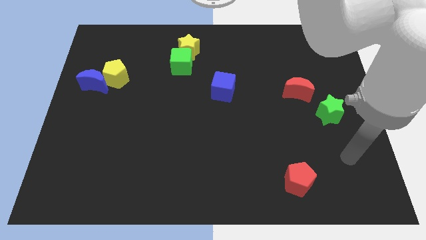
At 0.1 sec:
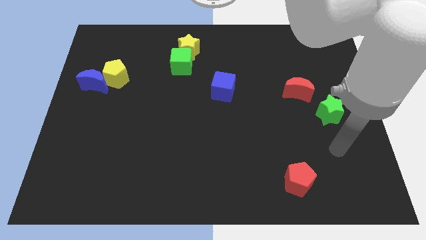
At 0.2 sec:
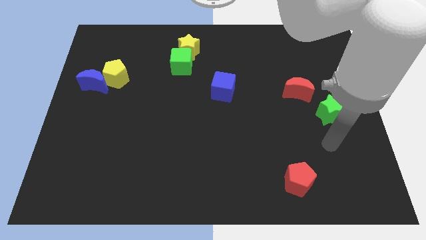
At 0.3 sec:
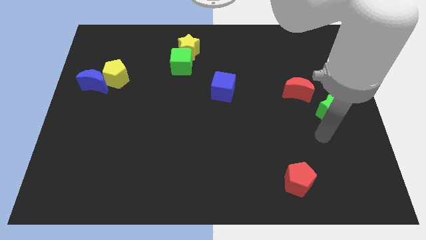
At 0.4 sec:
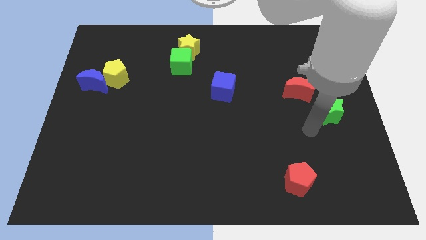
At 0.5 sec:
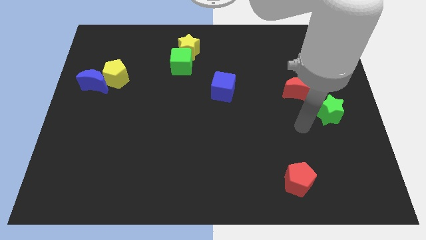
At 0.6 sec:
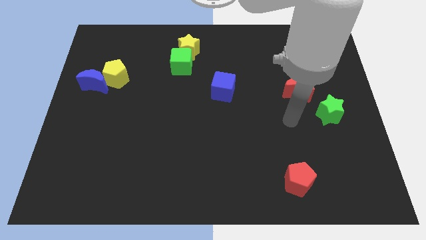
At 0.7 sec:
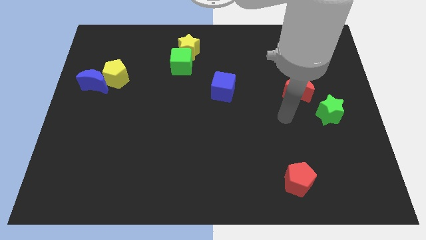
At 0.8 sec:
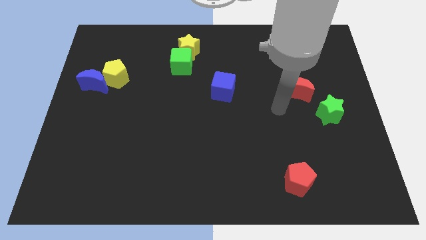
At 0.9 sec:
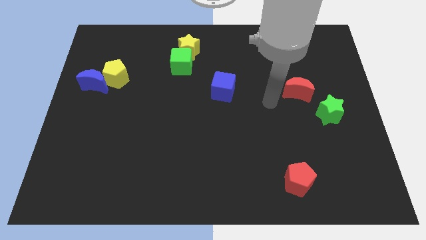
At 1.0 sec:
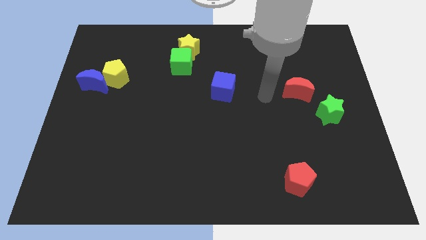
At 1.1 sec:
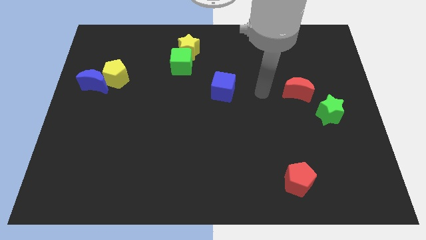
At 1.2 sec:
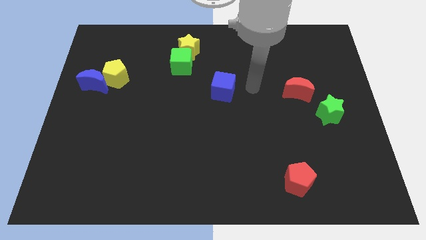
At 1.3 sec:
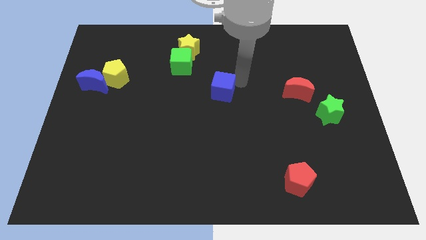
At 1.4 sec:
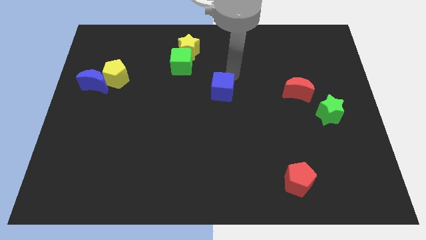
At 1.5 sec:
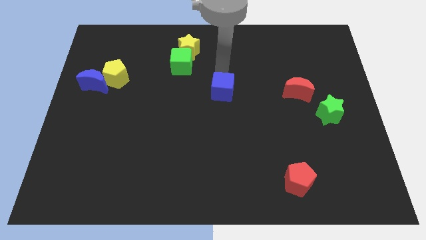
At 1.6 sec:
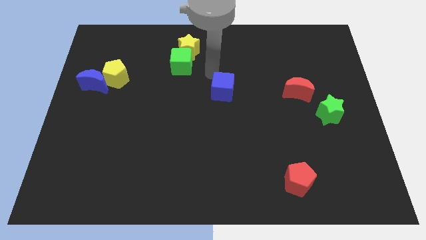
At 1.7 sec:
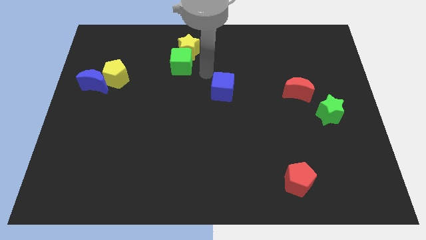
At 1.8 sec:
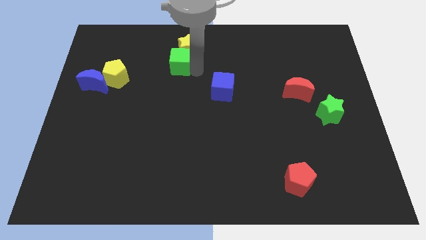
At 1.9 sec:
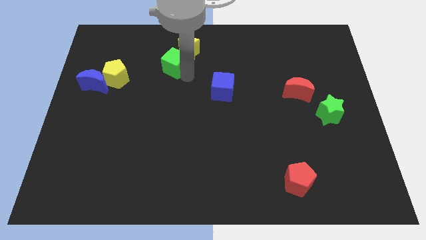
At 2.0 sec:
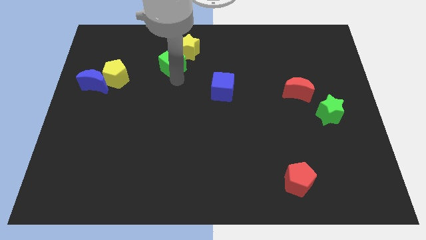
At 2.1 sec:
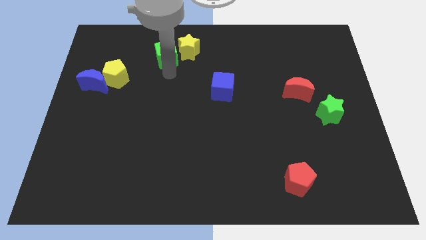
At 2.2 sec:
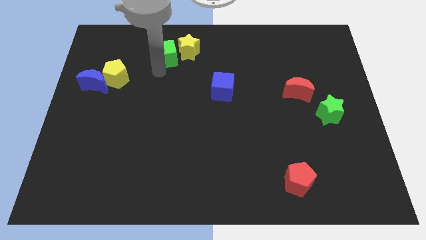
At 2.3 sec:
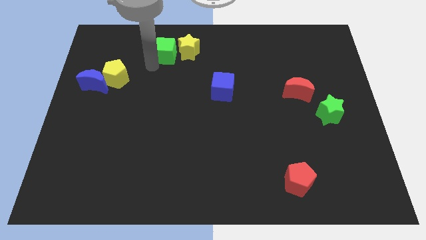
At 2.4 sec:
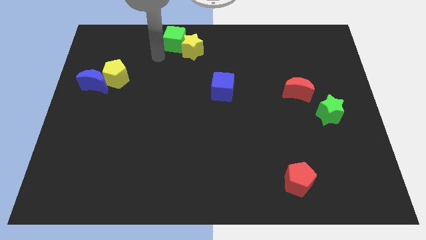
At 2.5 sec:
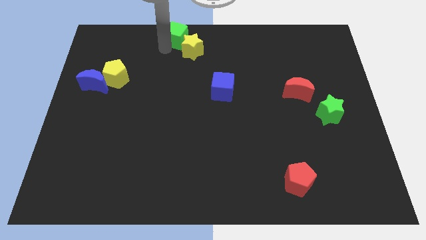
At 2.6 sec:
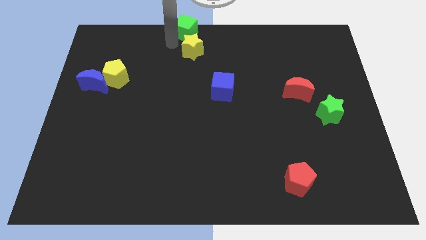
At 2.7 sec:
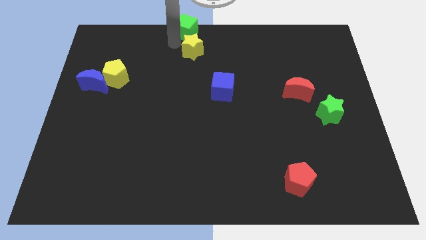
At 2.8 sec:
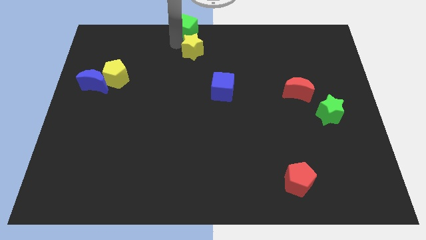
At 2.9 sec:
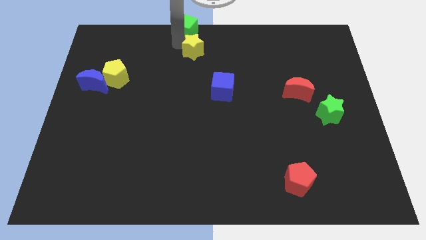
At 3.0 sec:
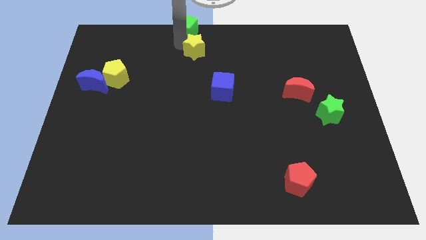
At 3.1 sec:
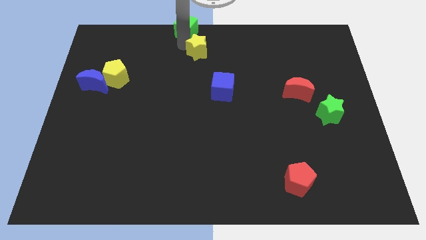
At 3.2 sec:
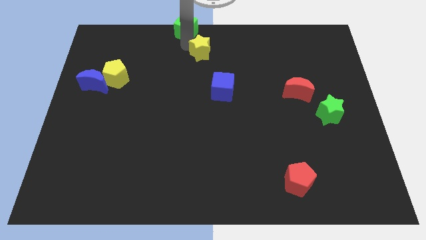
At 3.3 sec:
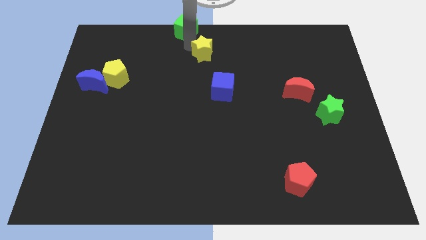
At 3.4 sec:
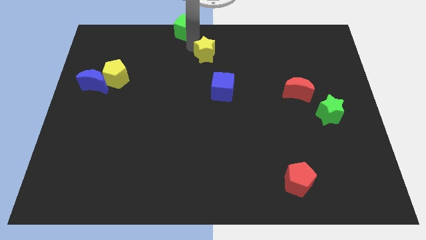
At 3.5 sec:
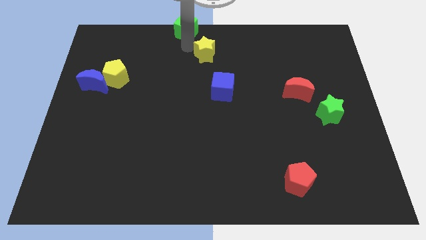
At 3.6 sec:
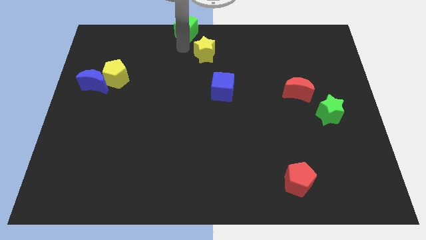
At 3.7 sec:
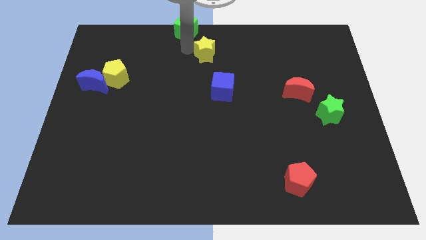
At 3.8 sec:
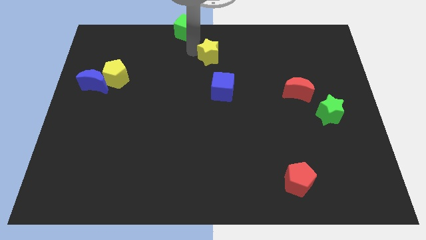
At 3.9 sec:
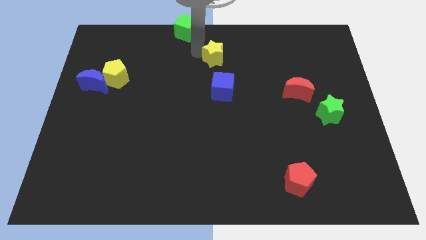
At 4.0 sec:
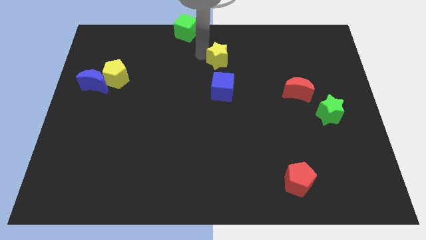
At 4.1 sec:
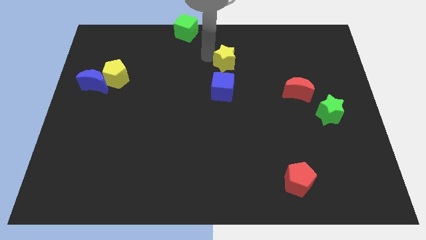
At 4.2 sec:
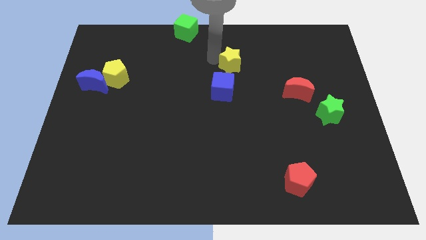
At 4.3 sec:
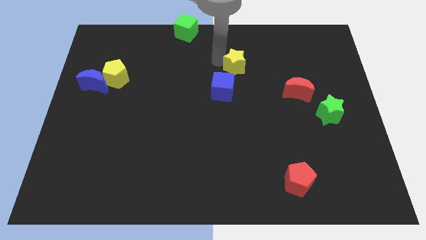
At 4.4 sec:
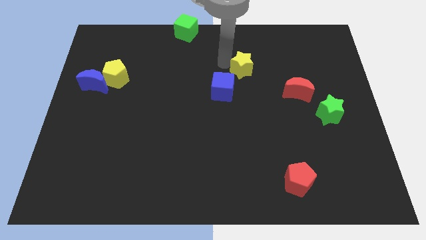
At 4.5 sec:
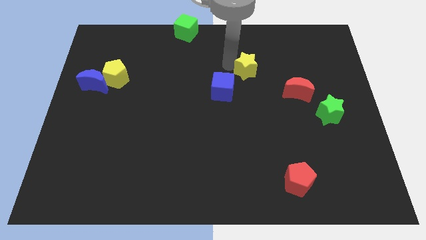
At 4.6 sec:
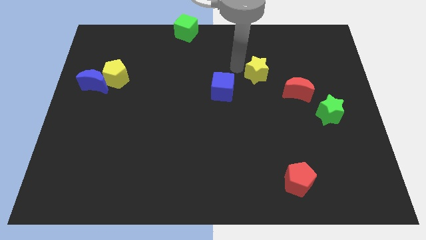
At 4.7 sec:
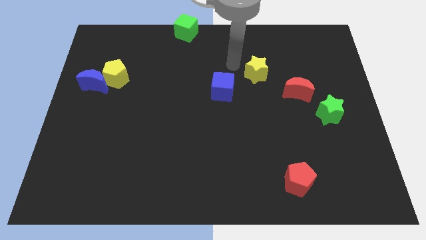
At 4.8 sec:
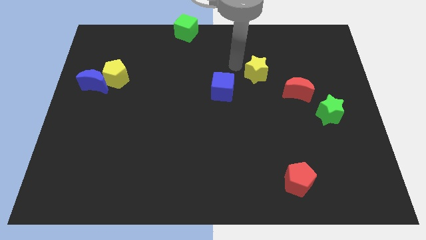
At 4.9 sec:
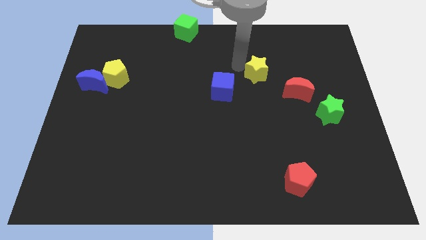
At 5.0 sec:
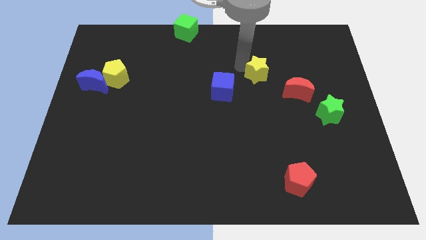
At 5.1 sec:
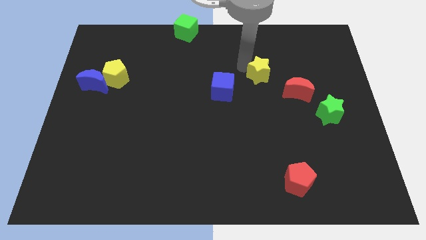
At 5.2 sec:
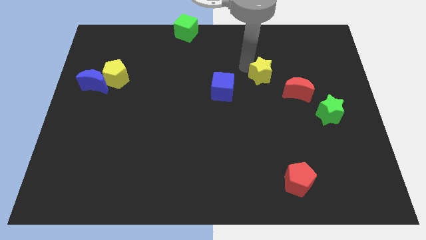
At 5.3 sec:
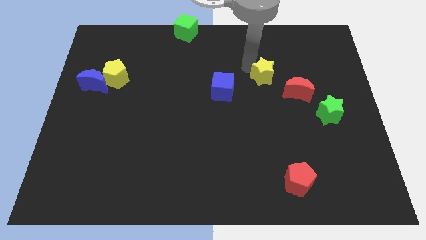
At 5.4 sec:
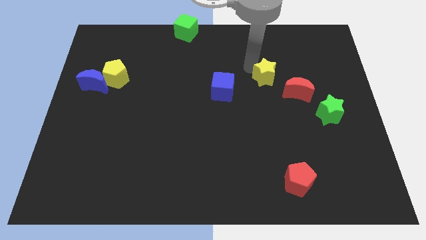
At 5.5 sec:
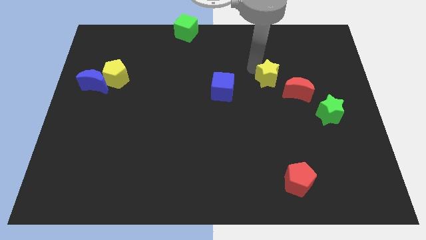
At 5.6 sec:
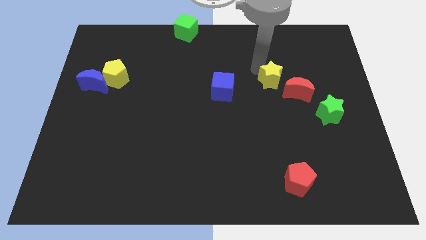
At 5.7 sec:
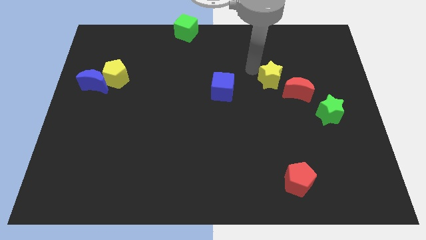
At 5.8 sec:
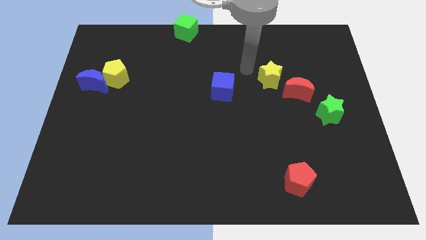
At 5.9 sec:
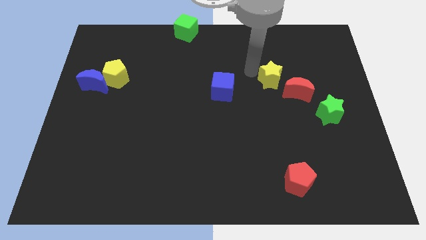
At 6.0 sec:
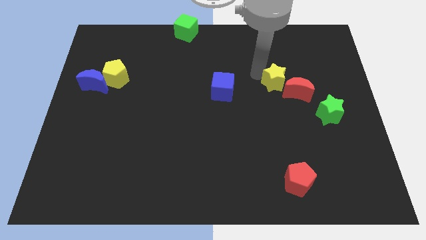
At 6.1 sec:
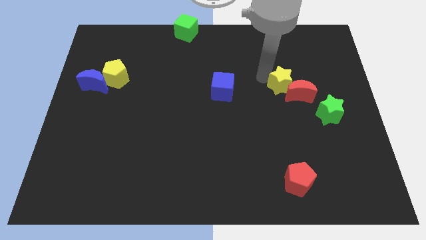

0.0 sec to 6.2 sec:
move the yellow star to the red moon

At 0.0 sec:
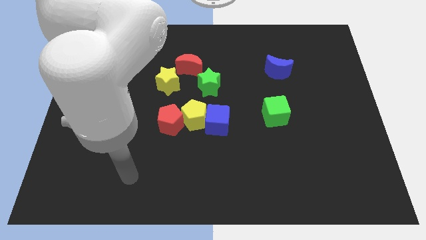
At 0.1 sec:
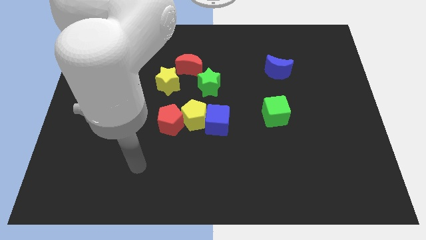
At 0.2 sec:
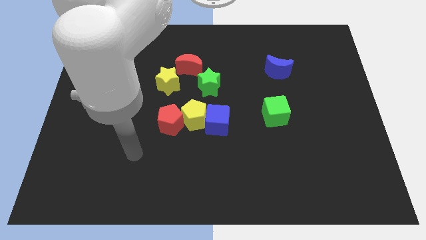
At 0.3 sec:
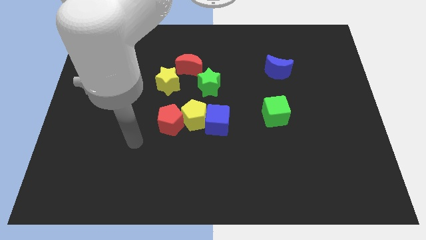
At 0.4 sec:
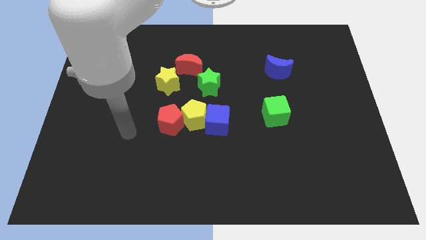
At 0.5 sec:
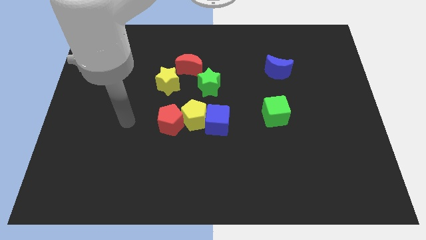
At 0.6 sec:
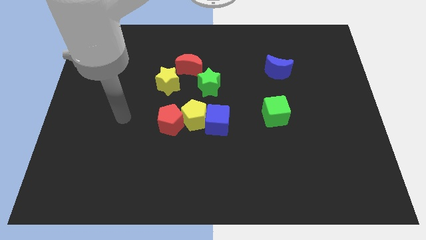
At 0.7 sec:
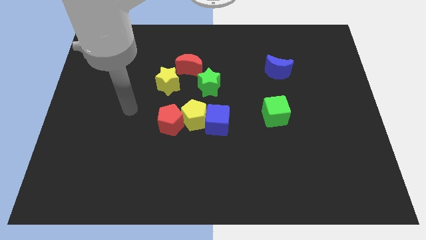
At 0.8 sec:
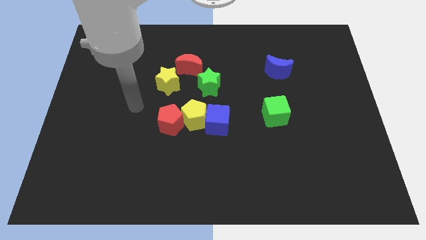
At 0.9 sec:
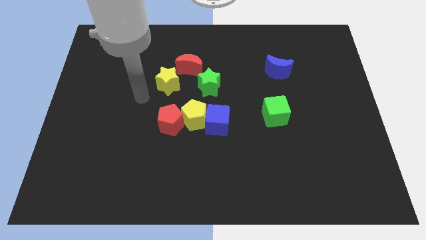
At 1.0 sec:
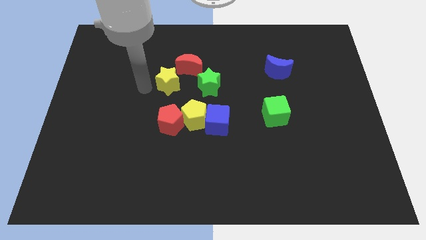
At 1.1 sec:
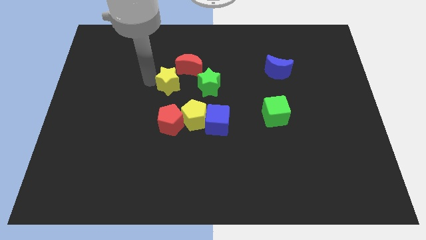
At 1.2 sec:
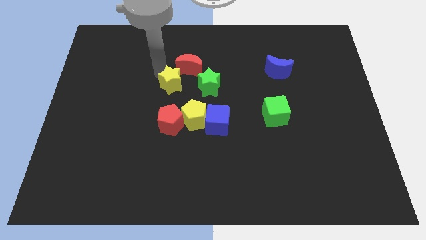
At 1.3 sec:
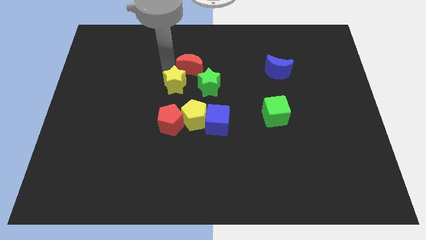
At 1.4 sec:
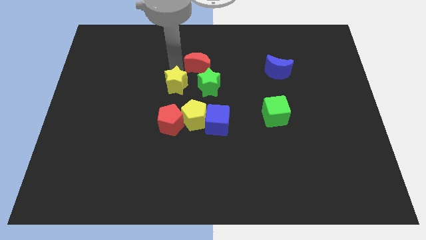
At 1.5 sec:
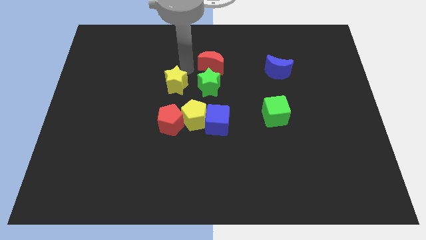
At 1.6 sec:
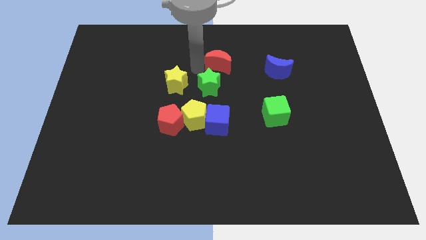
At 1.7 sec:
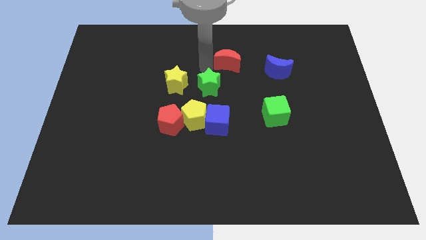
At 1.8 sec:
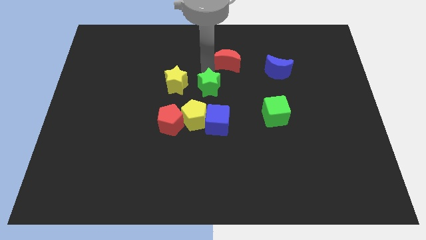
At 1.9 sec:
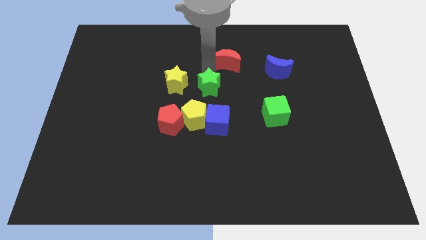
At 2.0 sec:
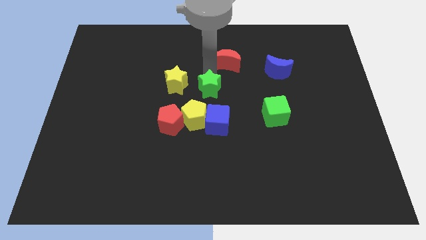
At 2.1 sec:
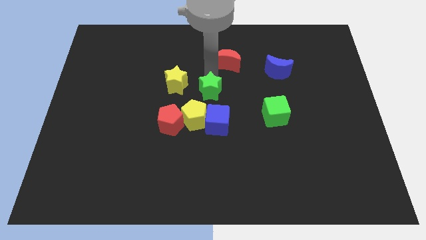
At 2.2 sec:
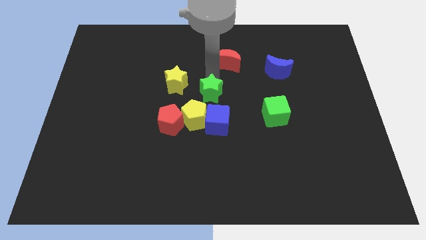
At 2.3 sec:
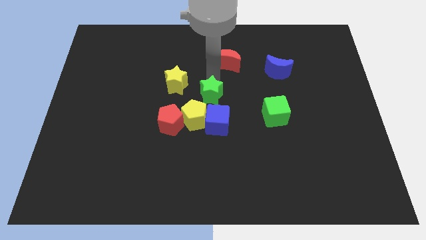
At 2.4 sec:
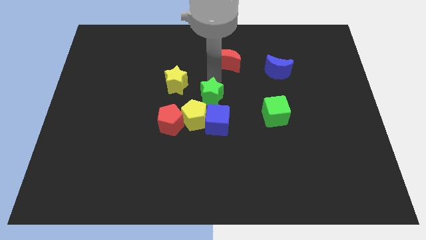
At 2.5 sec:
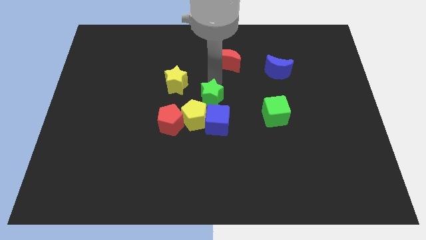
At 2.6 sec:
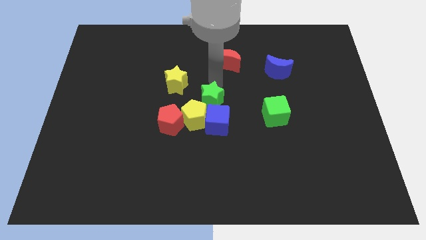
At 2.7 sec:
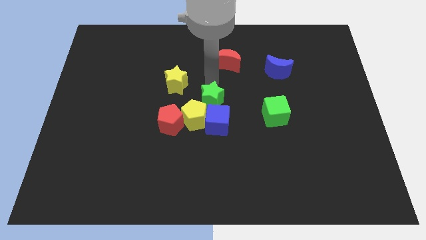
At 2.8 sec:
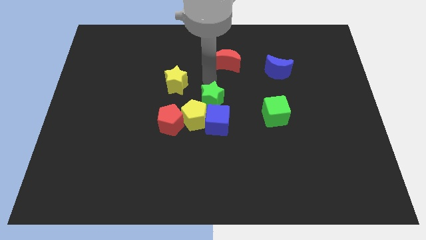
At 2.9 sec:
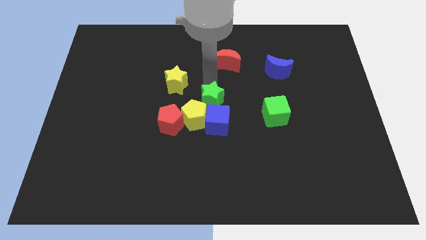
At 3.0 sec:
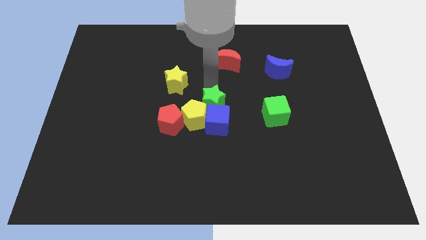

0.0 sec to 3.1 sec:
slide the green star towards the blue cube
